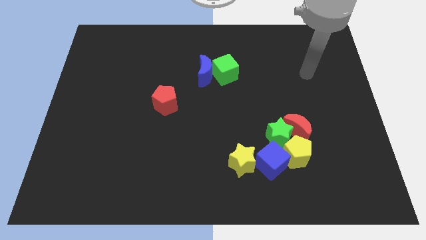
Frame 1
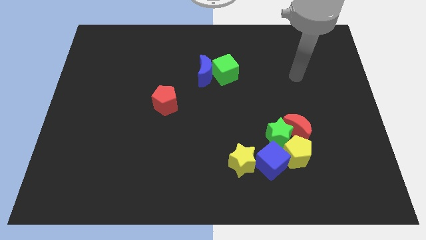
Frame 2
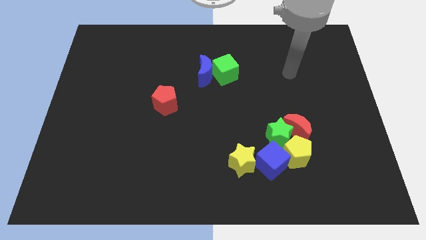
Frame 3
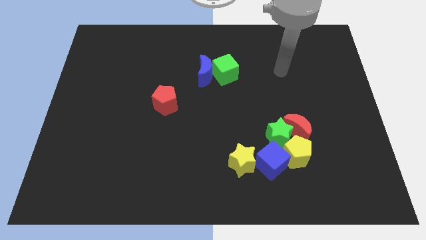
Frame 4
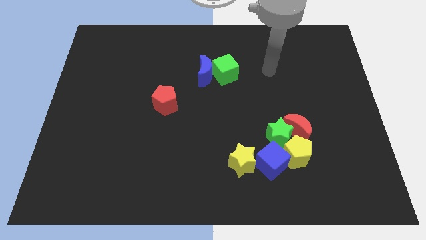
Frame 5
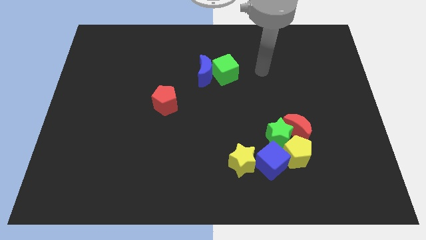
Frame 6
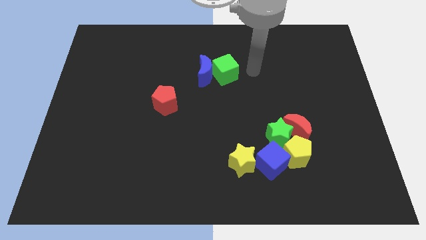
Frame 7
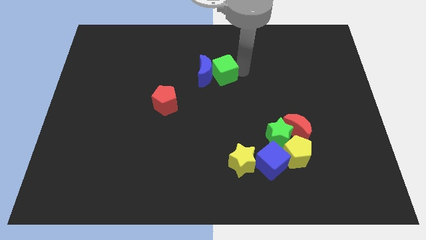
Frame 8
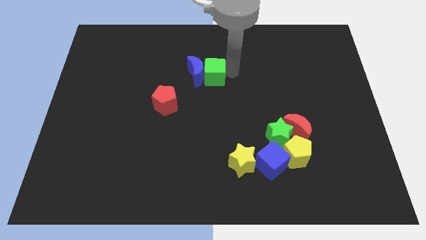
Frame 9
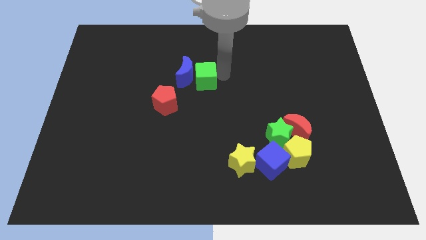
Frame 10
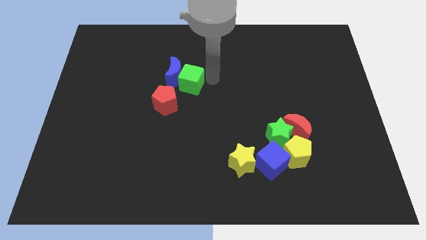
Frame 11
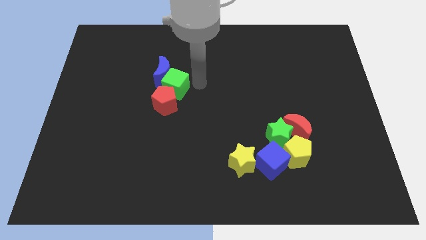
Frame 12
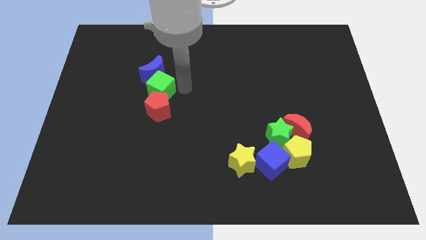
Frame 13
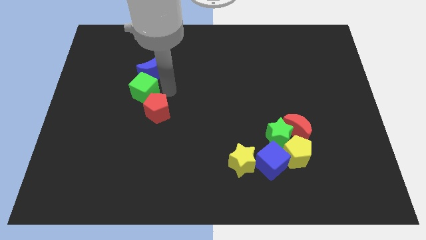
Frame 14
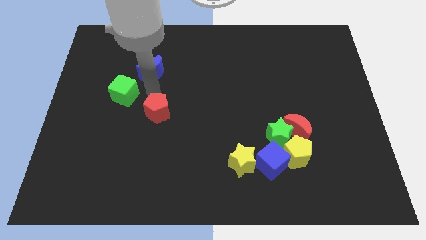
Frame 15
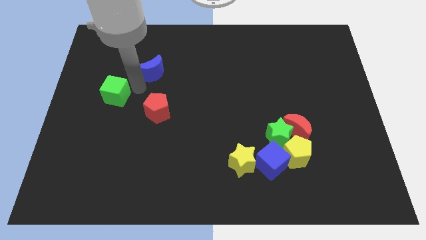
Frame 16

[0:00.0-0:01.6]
separate the blue moon from the green cube

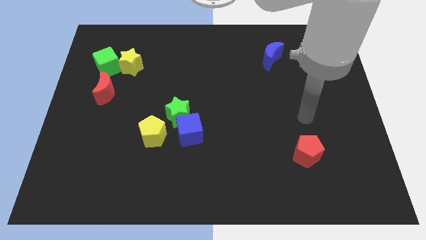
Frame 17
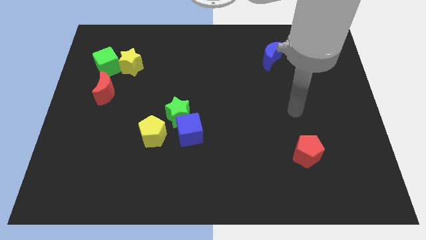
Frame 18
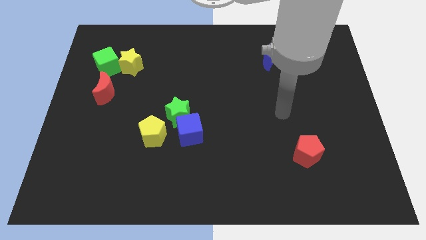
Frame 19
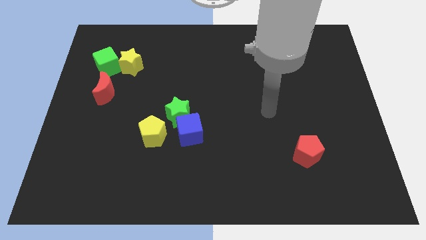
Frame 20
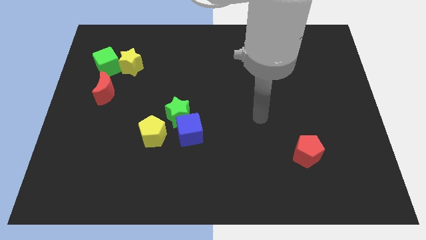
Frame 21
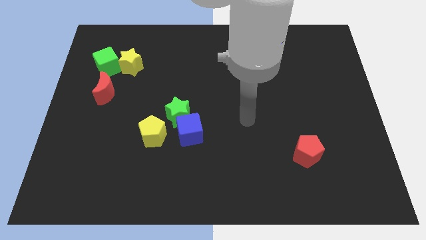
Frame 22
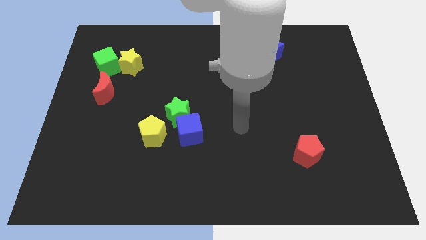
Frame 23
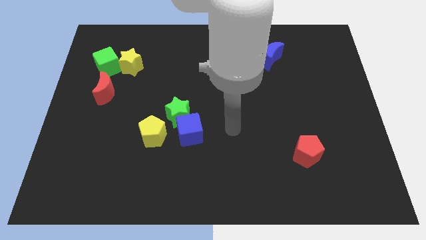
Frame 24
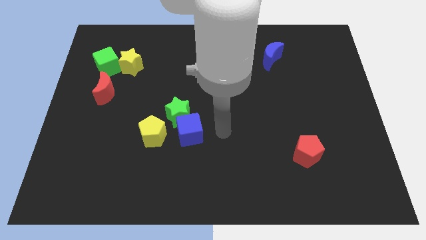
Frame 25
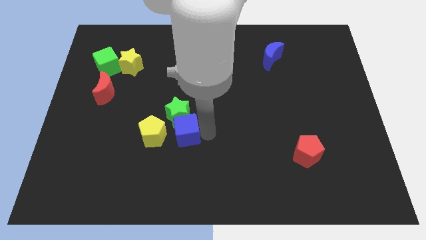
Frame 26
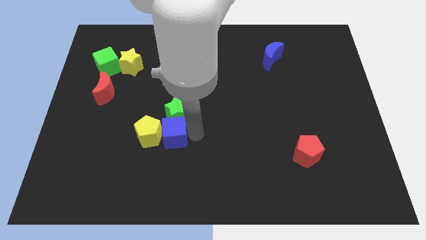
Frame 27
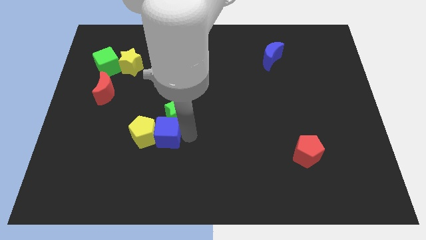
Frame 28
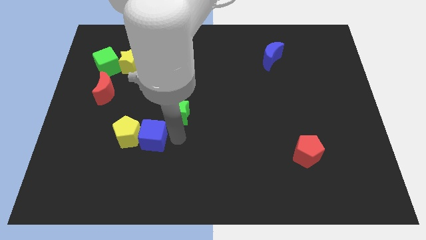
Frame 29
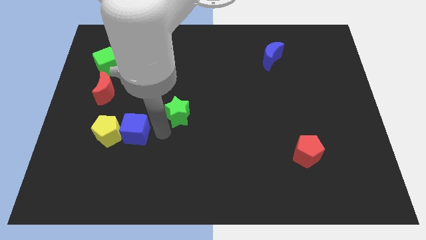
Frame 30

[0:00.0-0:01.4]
pull the green star apart from the blue cube and yellow pentagon

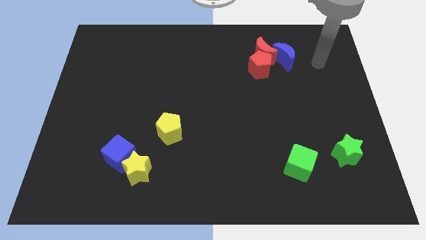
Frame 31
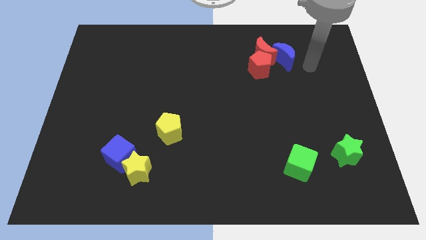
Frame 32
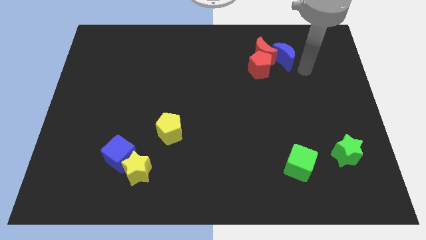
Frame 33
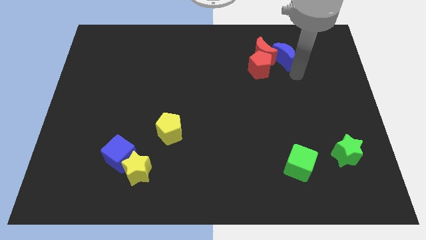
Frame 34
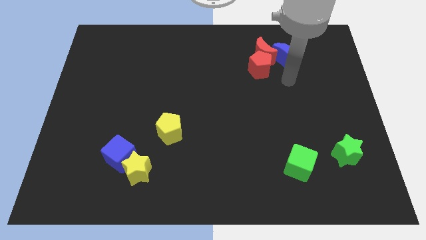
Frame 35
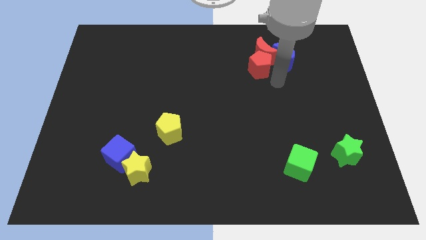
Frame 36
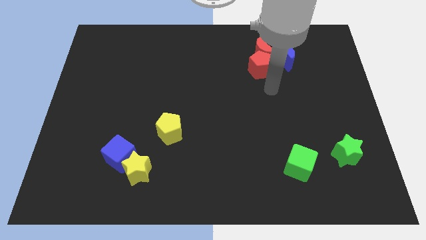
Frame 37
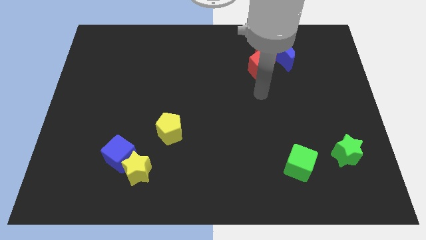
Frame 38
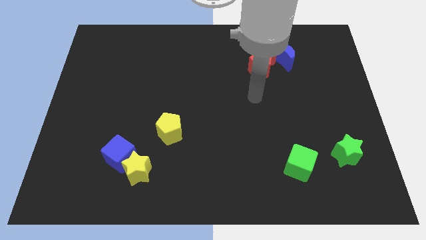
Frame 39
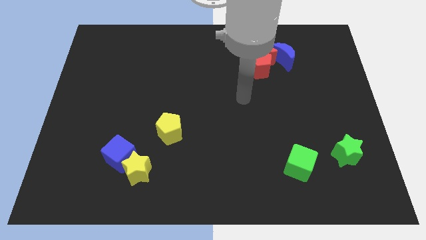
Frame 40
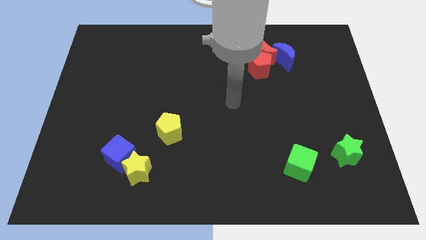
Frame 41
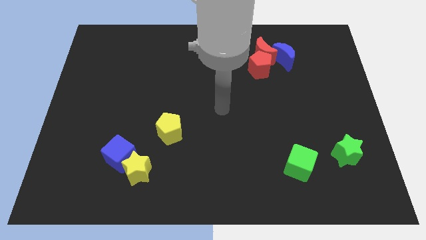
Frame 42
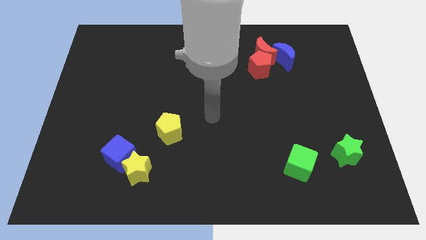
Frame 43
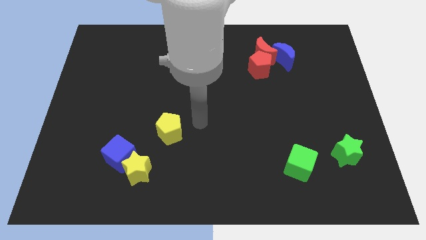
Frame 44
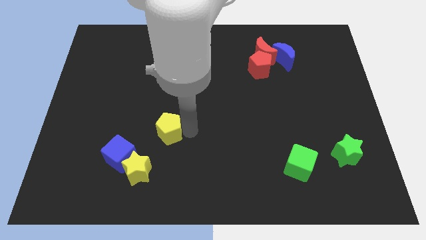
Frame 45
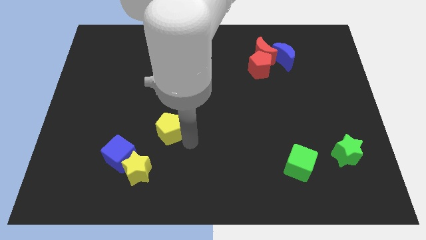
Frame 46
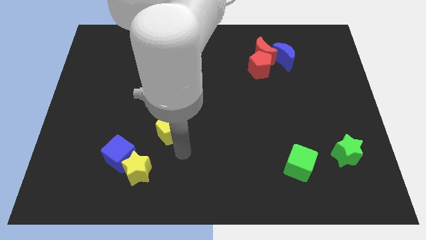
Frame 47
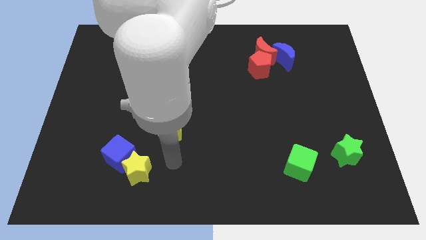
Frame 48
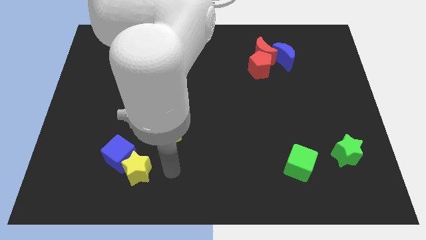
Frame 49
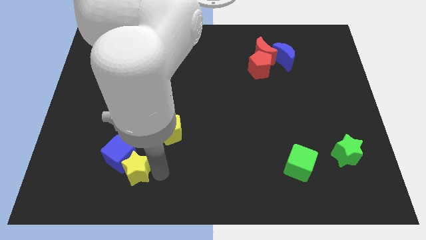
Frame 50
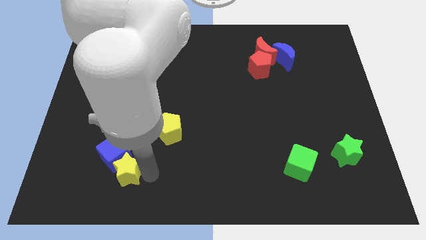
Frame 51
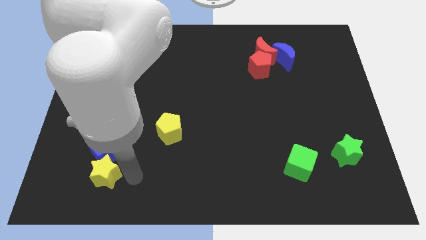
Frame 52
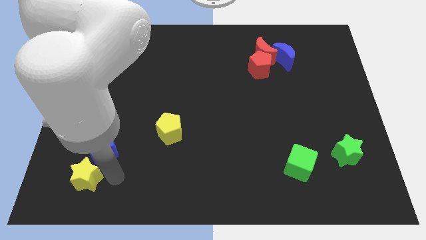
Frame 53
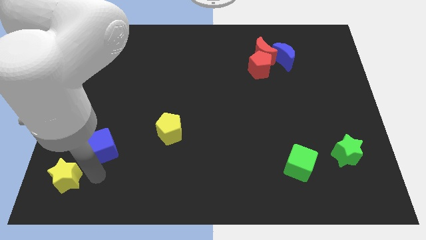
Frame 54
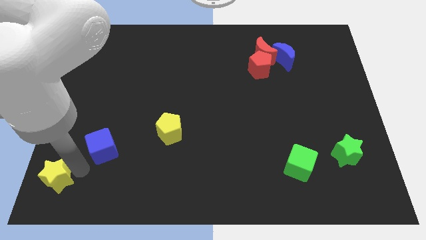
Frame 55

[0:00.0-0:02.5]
separate the blue cube from the yellow star

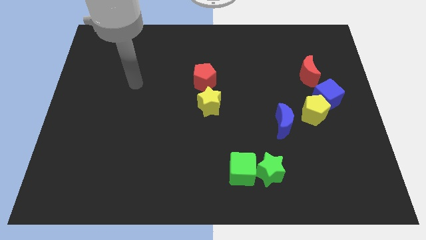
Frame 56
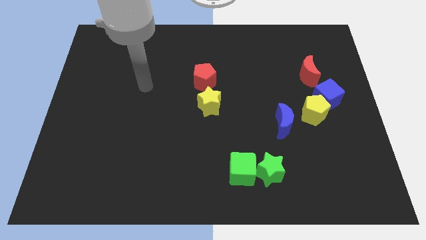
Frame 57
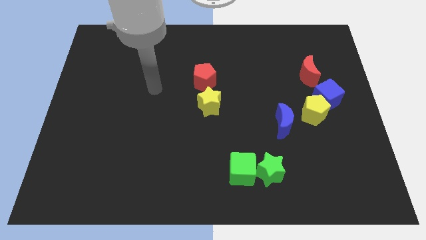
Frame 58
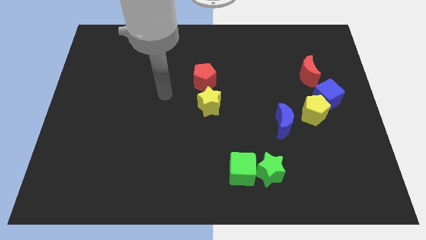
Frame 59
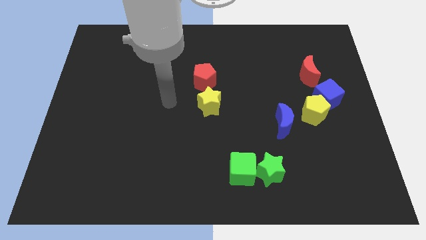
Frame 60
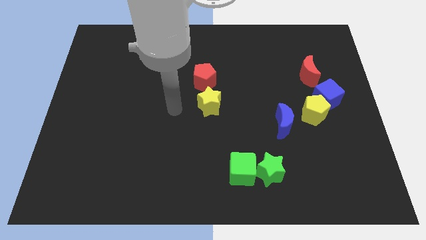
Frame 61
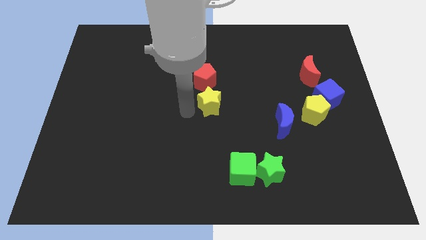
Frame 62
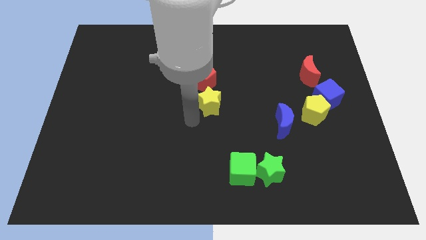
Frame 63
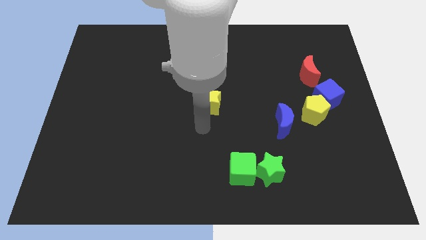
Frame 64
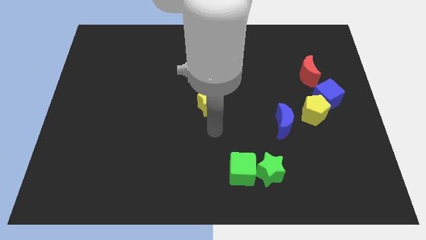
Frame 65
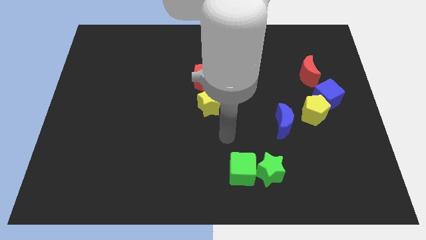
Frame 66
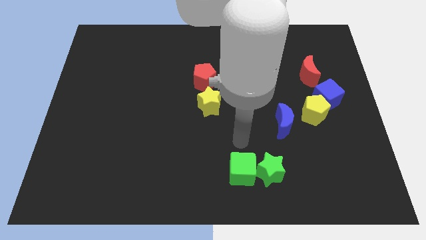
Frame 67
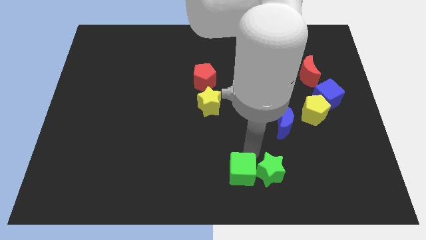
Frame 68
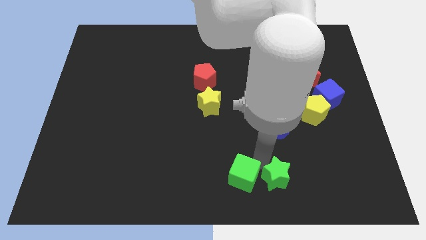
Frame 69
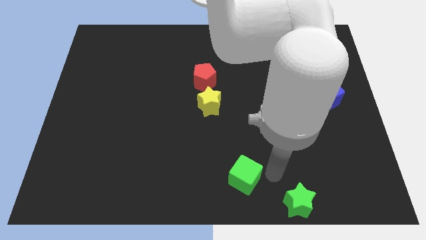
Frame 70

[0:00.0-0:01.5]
move the green cube away from the green star

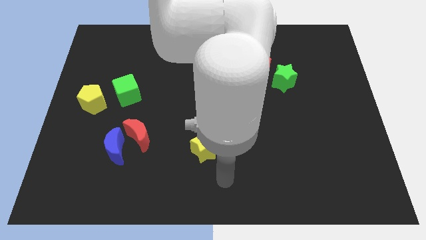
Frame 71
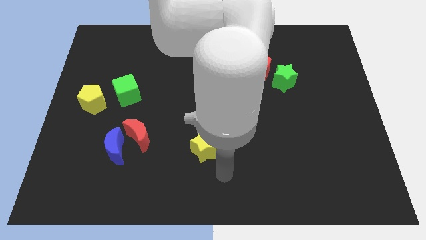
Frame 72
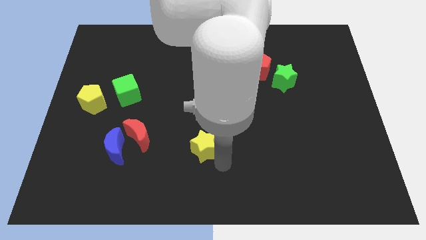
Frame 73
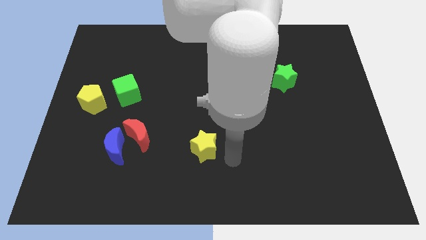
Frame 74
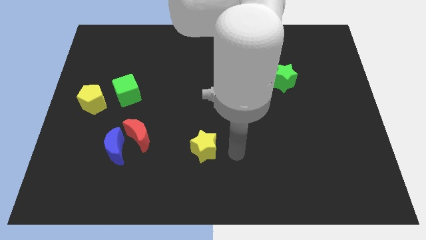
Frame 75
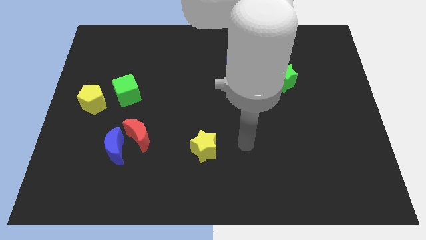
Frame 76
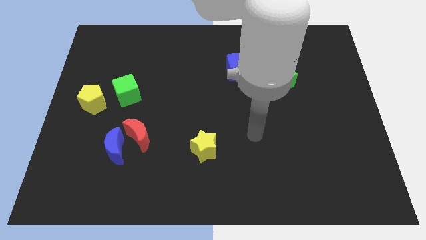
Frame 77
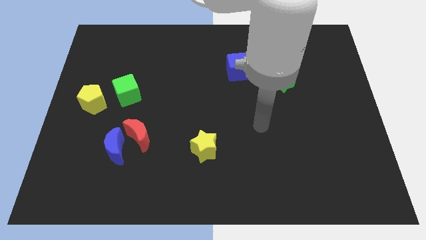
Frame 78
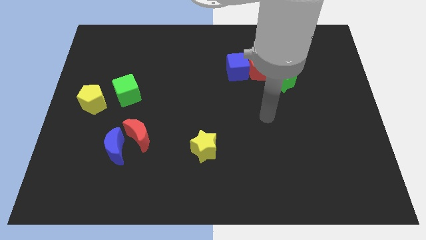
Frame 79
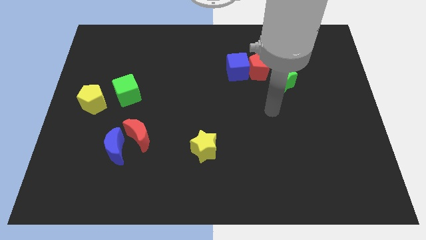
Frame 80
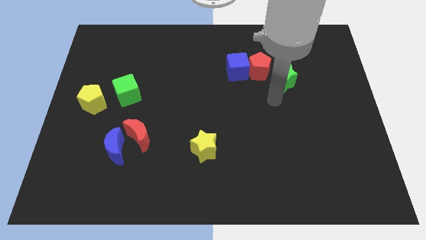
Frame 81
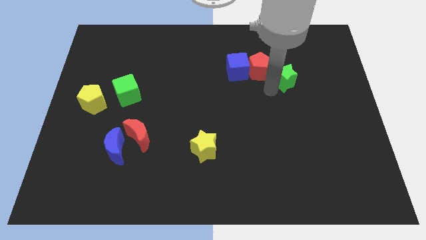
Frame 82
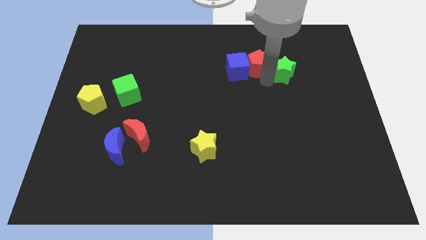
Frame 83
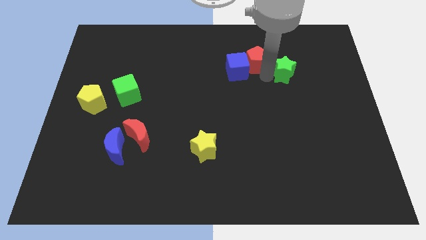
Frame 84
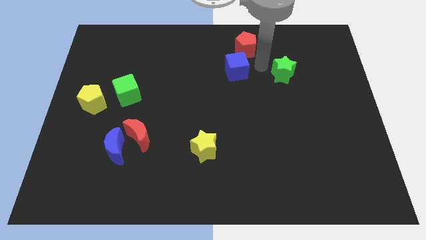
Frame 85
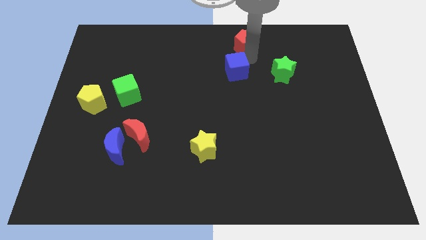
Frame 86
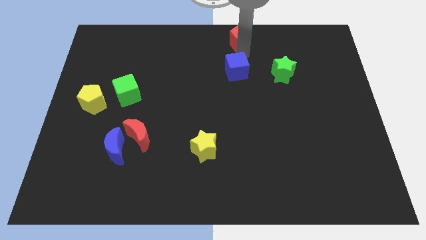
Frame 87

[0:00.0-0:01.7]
pull the blue cube apart from the red pentagon

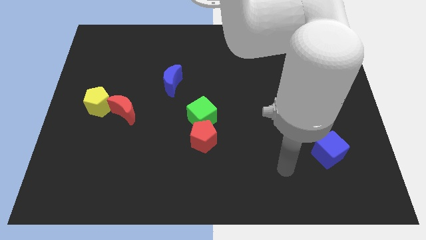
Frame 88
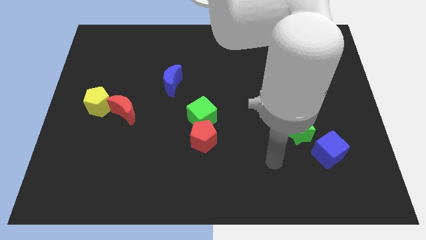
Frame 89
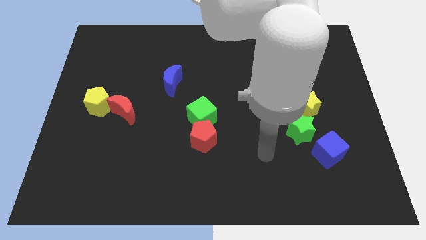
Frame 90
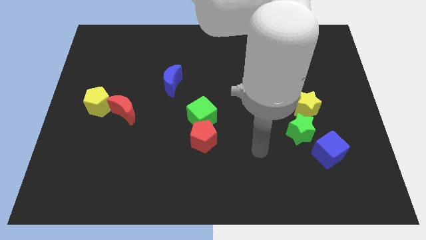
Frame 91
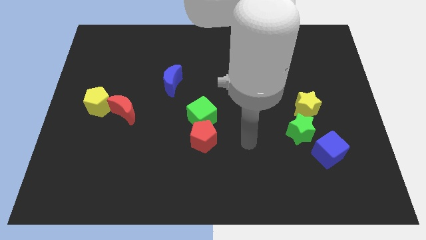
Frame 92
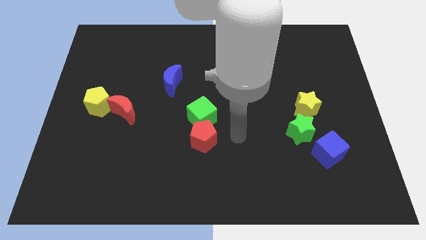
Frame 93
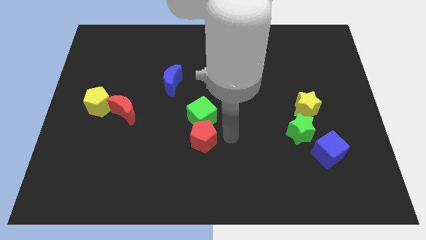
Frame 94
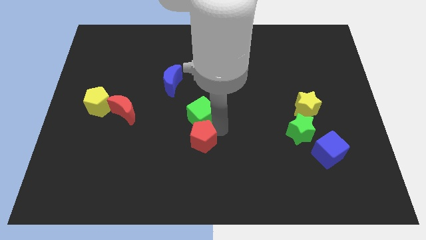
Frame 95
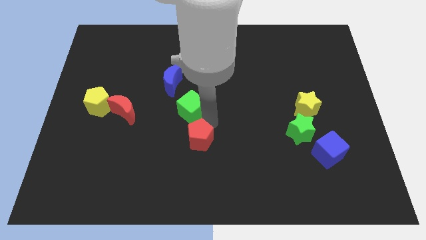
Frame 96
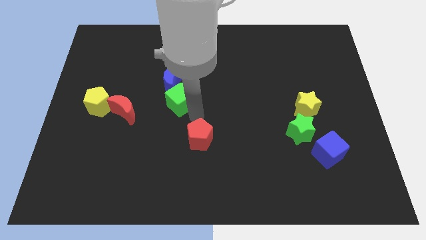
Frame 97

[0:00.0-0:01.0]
move the red pentagon away from the green cube
